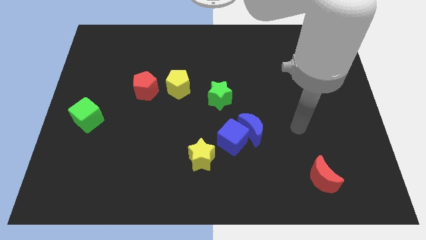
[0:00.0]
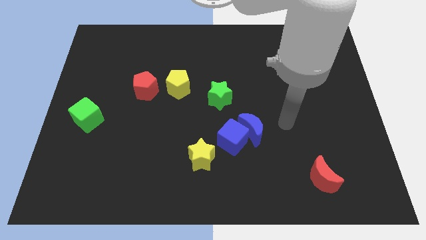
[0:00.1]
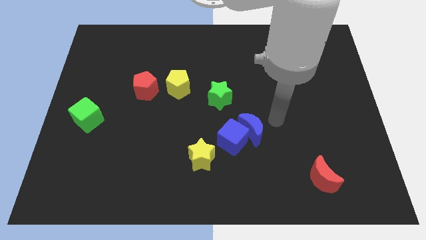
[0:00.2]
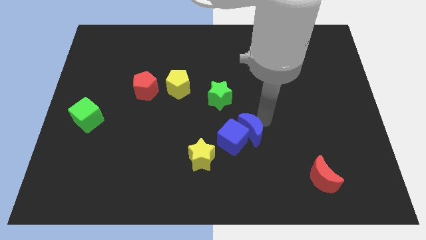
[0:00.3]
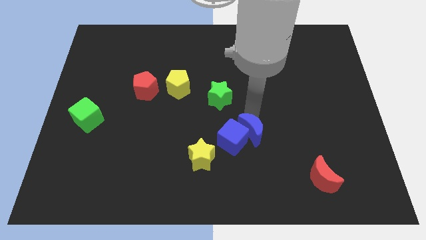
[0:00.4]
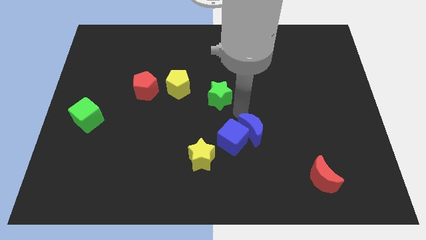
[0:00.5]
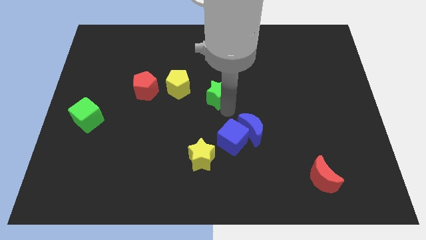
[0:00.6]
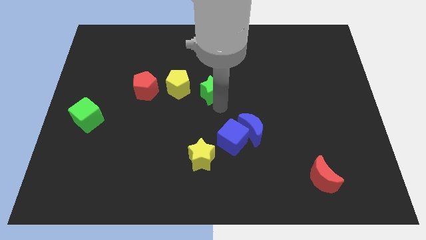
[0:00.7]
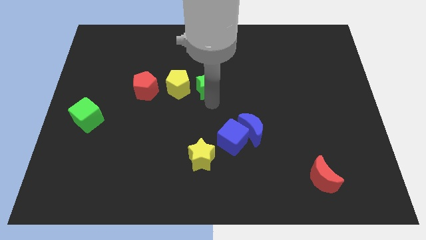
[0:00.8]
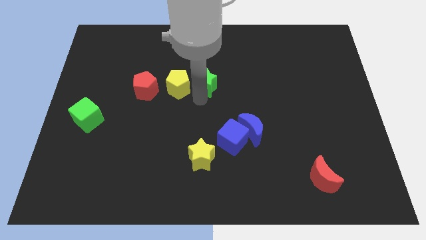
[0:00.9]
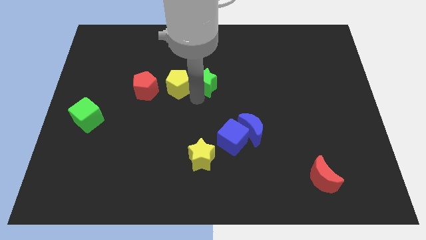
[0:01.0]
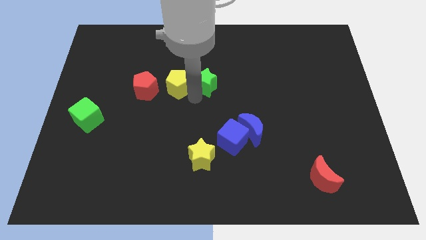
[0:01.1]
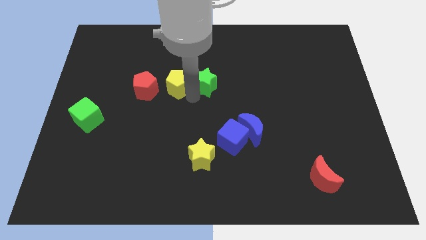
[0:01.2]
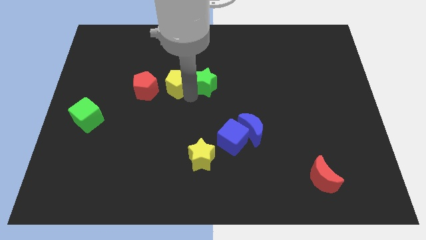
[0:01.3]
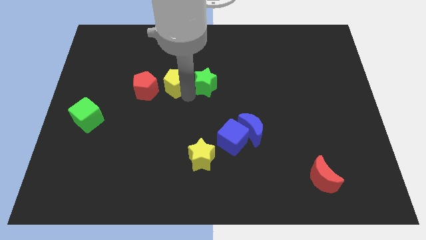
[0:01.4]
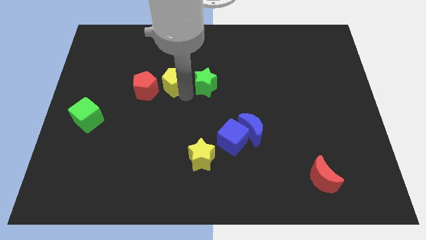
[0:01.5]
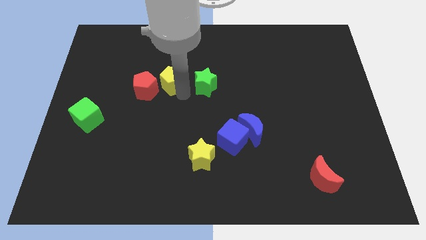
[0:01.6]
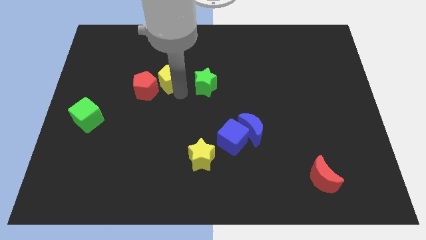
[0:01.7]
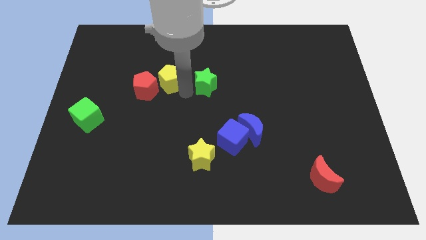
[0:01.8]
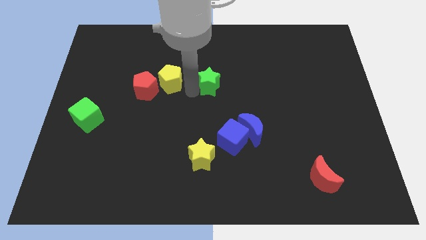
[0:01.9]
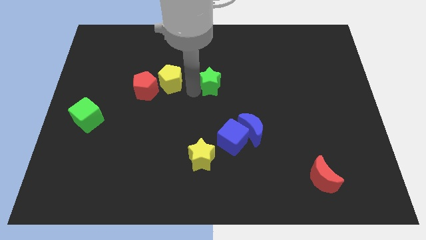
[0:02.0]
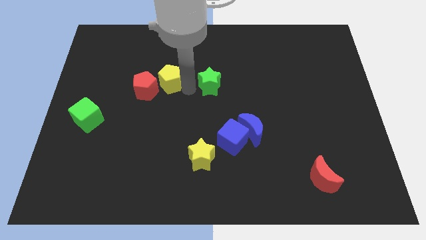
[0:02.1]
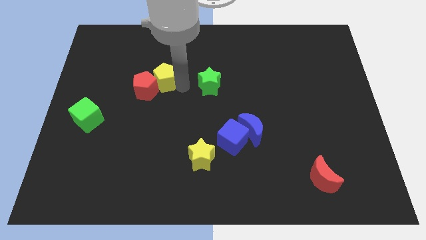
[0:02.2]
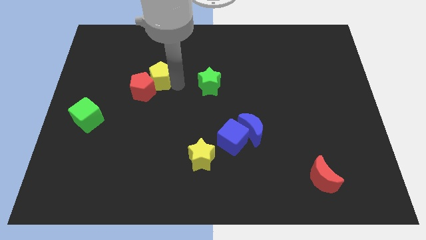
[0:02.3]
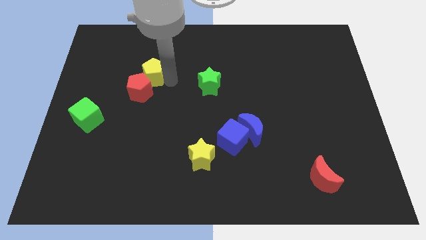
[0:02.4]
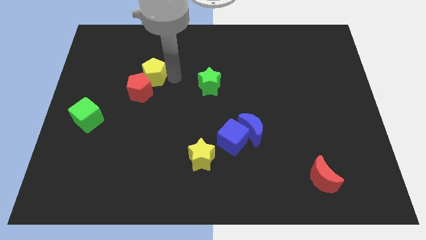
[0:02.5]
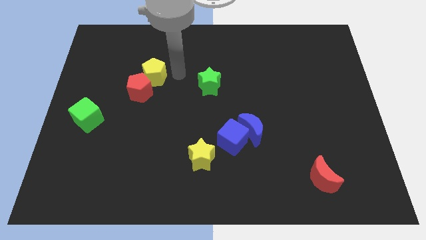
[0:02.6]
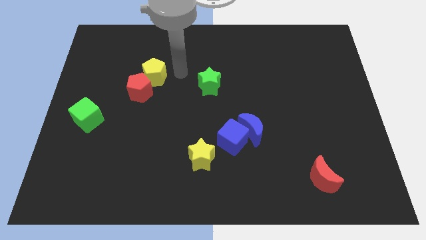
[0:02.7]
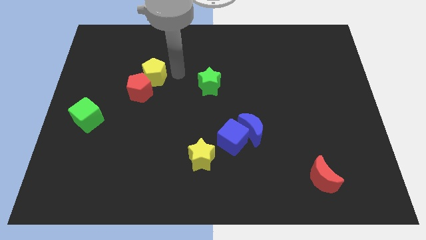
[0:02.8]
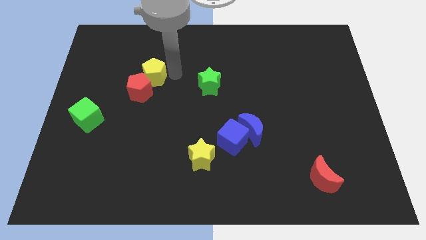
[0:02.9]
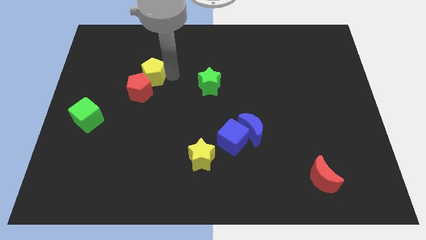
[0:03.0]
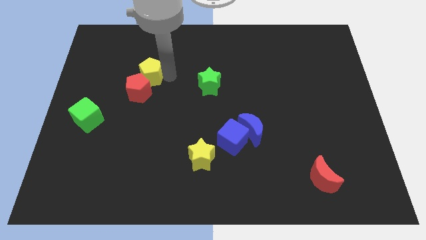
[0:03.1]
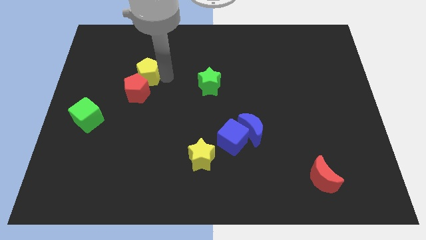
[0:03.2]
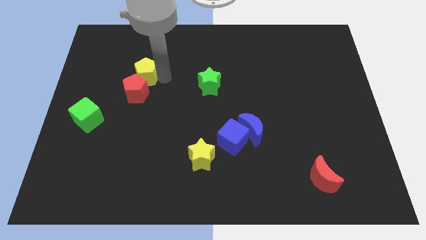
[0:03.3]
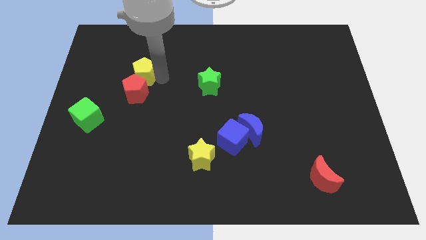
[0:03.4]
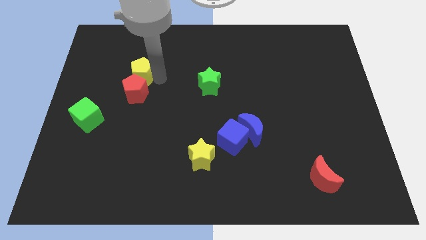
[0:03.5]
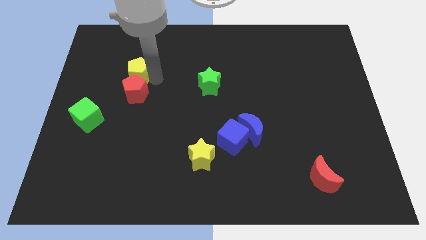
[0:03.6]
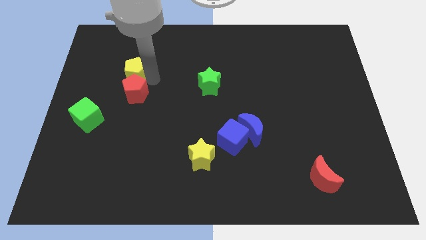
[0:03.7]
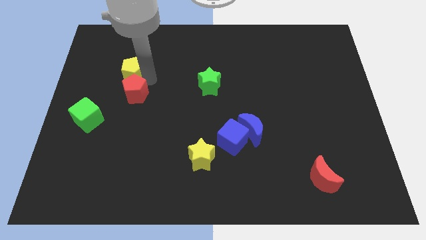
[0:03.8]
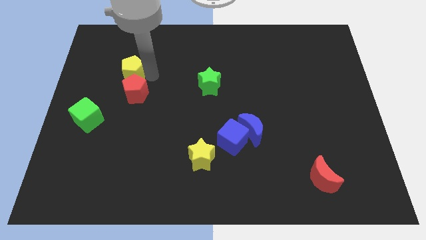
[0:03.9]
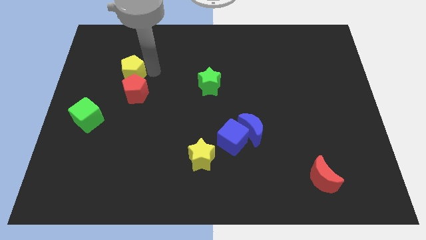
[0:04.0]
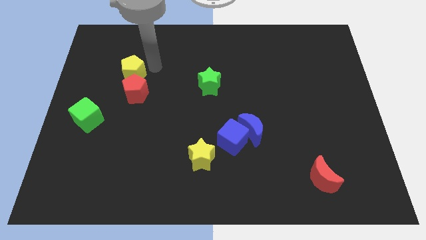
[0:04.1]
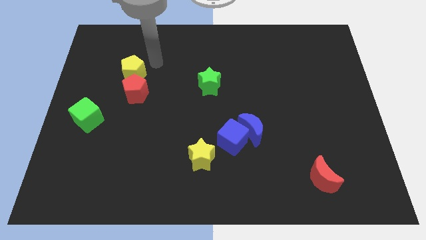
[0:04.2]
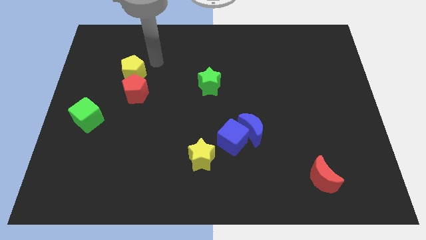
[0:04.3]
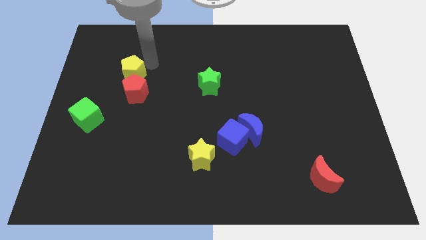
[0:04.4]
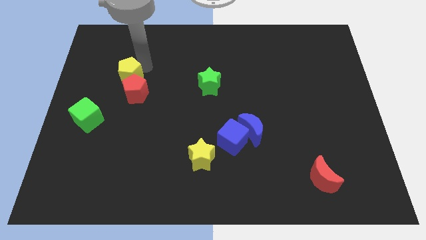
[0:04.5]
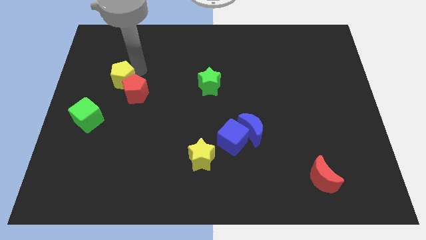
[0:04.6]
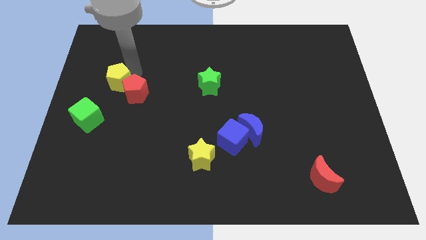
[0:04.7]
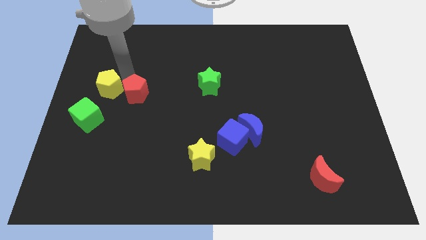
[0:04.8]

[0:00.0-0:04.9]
put the yellow pentagon to the center left

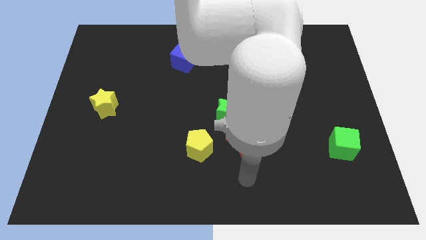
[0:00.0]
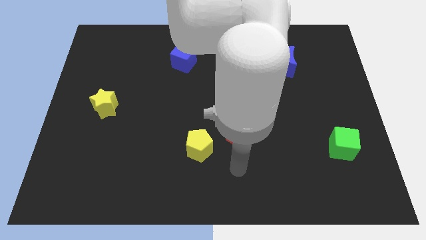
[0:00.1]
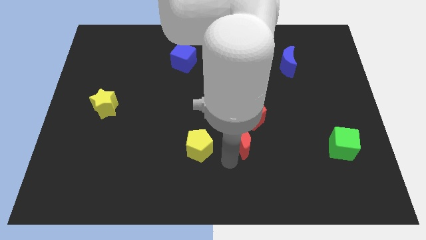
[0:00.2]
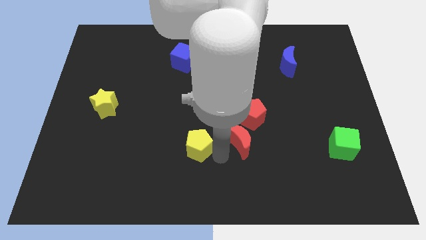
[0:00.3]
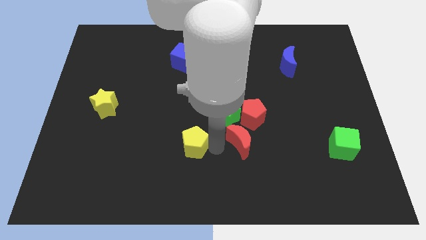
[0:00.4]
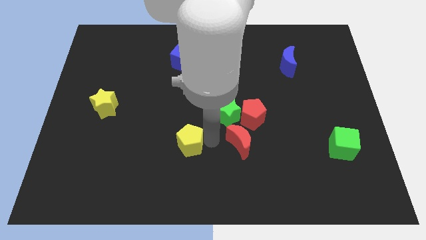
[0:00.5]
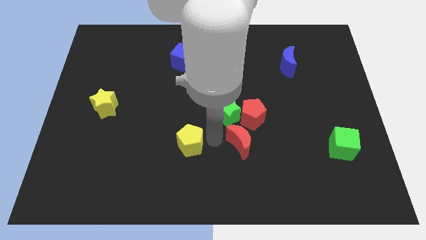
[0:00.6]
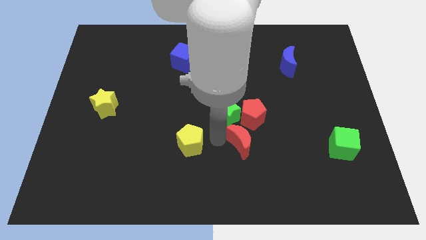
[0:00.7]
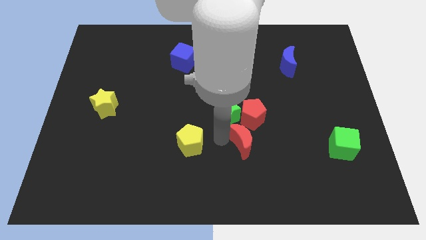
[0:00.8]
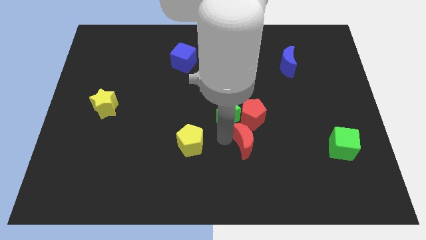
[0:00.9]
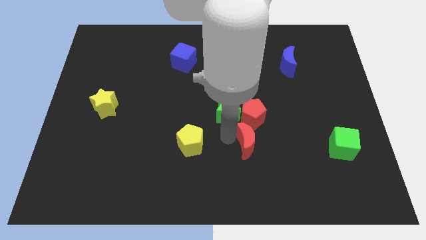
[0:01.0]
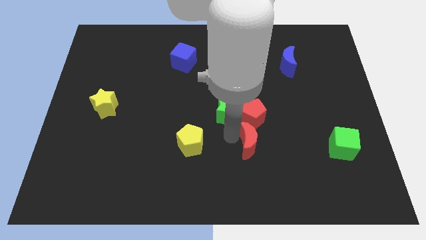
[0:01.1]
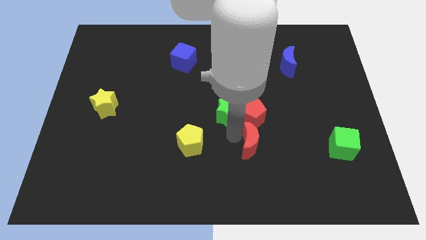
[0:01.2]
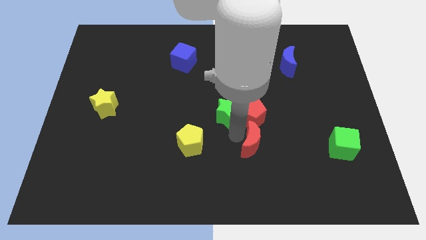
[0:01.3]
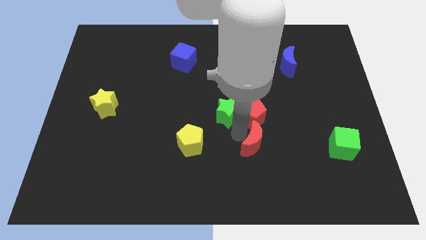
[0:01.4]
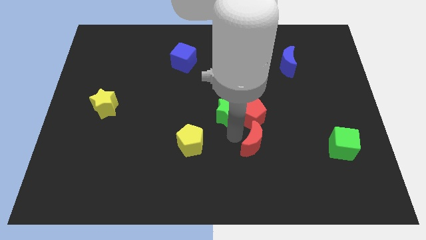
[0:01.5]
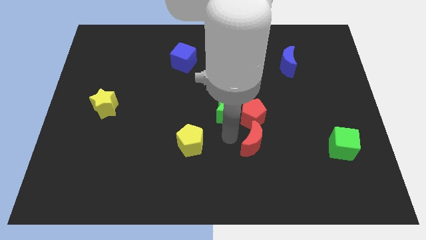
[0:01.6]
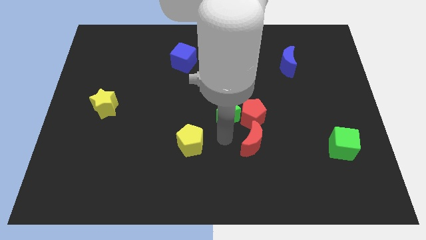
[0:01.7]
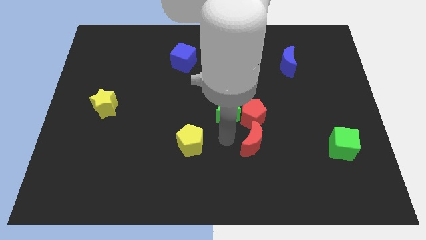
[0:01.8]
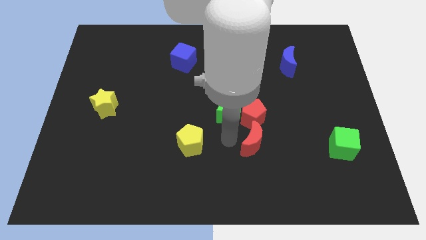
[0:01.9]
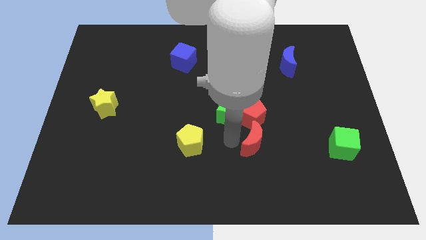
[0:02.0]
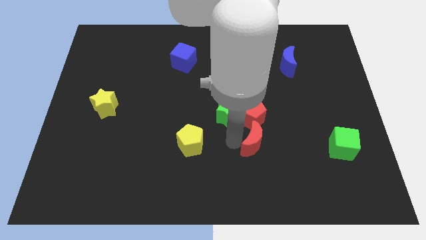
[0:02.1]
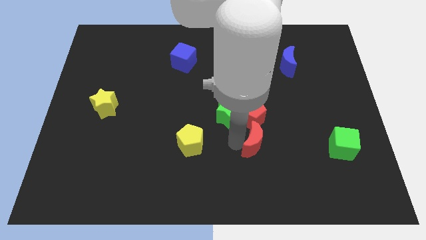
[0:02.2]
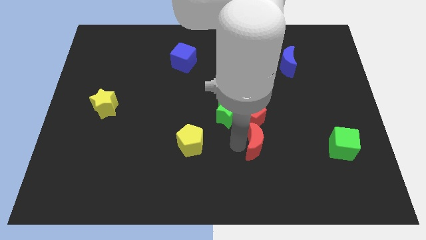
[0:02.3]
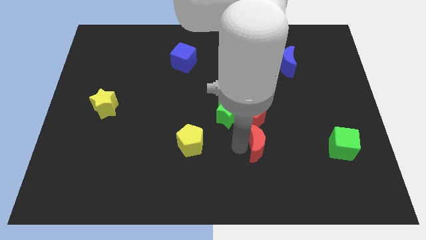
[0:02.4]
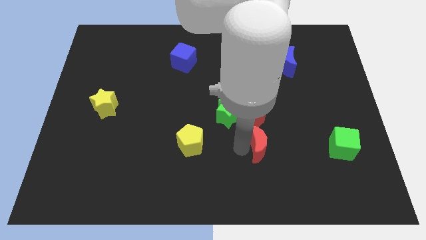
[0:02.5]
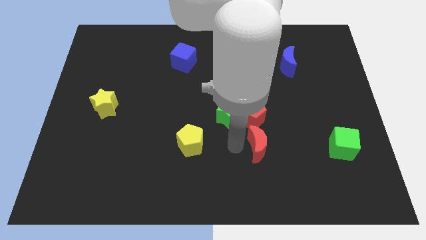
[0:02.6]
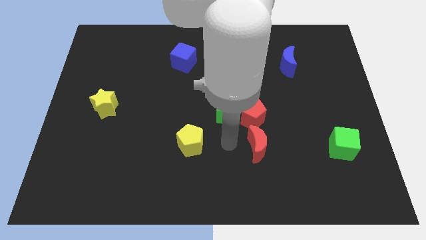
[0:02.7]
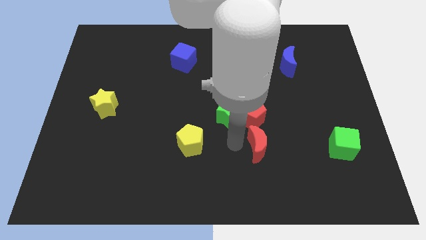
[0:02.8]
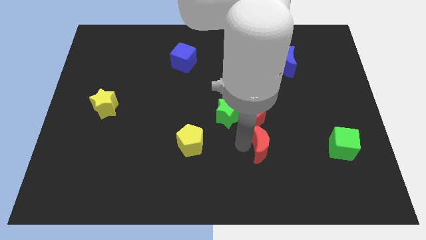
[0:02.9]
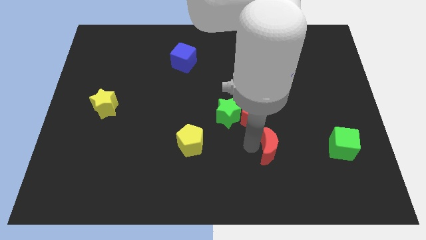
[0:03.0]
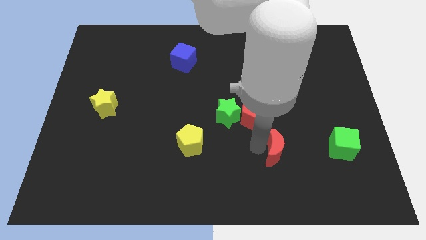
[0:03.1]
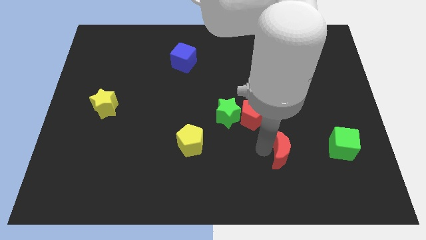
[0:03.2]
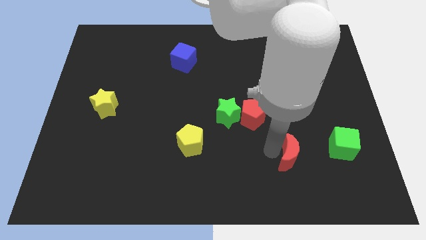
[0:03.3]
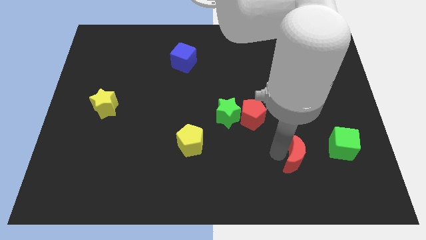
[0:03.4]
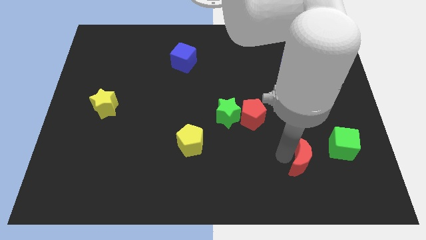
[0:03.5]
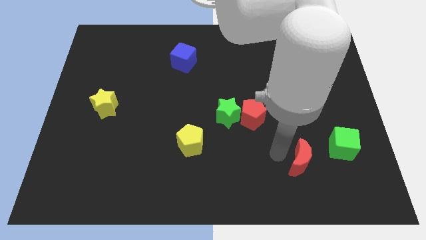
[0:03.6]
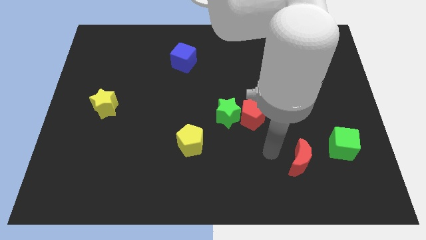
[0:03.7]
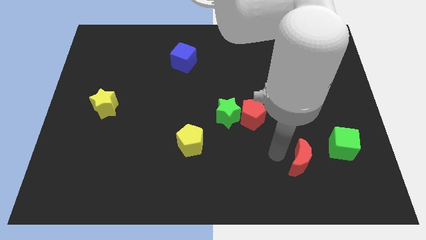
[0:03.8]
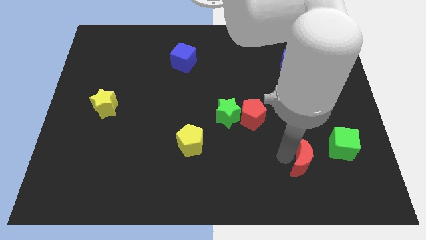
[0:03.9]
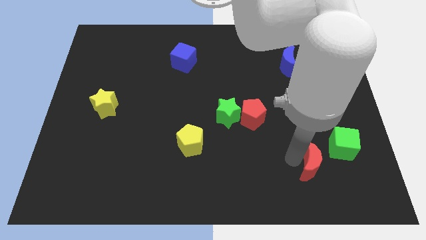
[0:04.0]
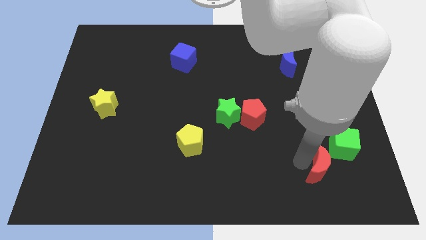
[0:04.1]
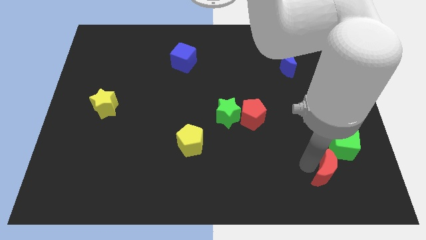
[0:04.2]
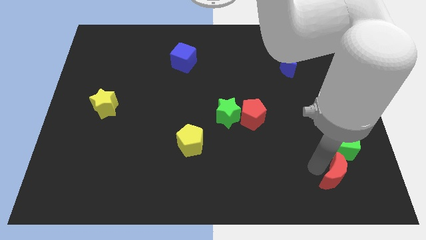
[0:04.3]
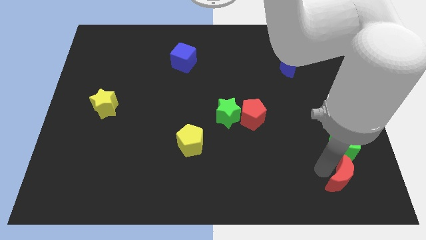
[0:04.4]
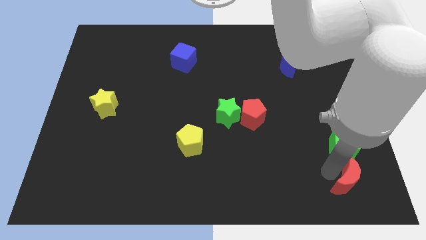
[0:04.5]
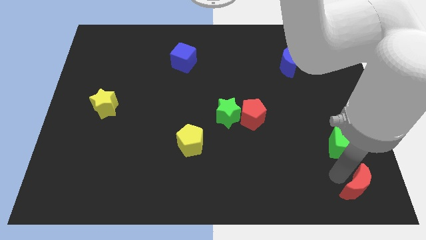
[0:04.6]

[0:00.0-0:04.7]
slide the red moon to the bottom right corner
